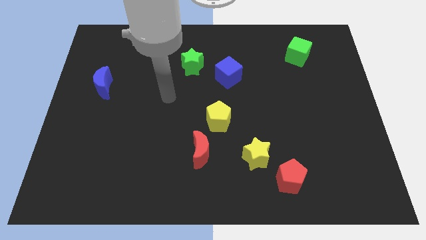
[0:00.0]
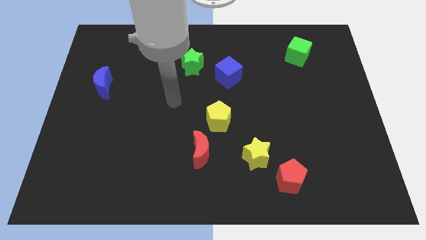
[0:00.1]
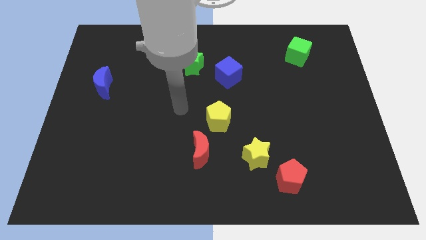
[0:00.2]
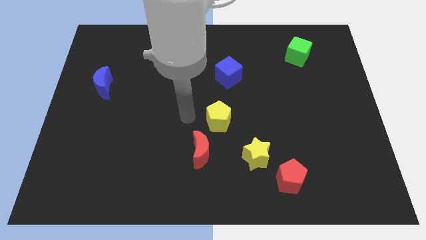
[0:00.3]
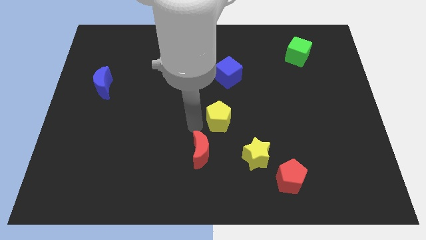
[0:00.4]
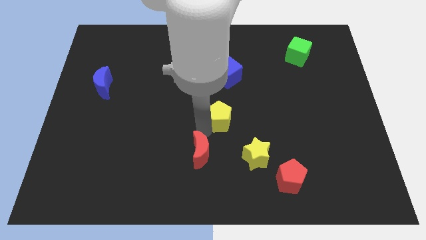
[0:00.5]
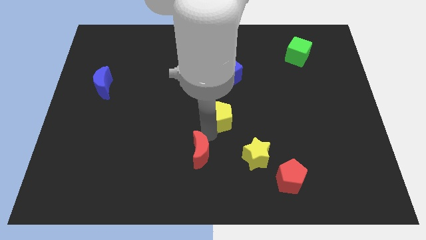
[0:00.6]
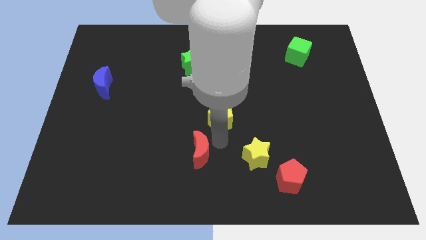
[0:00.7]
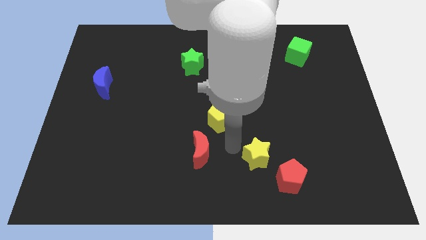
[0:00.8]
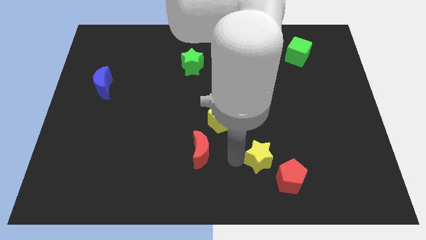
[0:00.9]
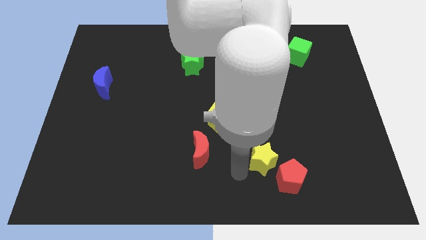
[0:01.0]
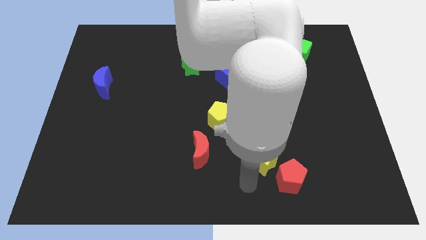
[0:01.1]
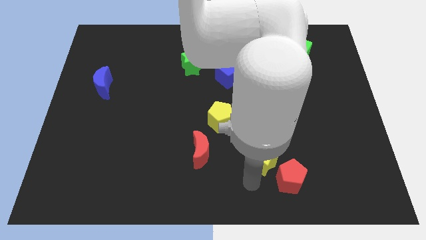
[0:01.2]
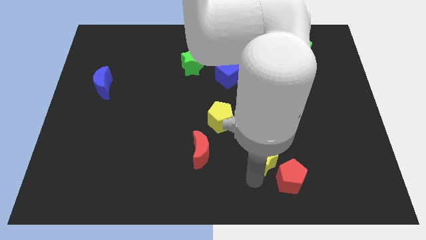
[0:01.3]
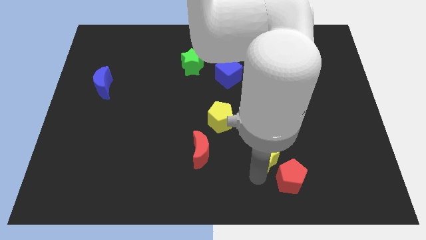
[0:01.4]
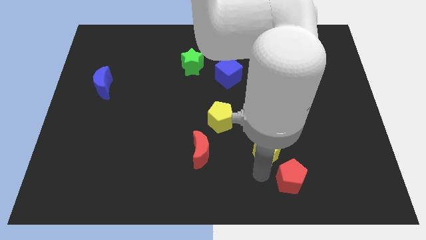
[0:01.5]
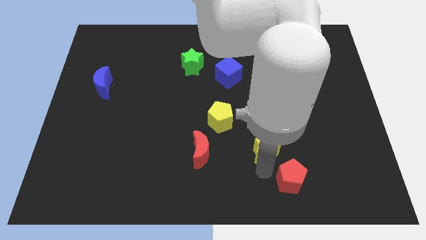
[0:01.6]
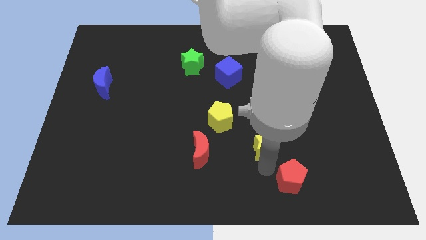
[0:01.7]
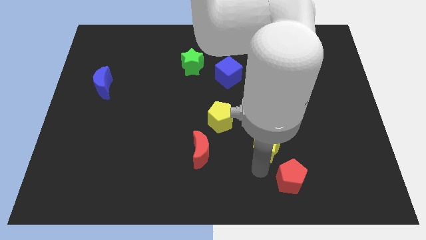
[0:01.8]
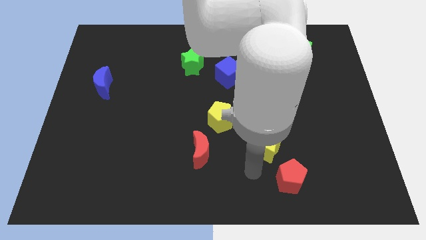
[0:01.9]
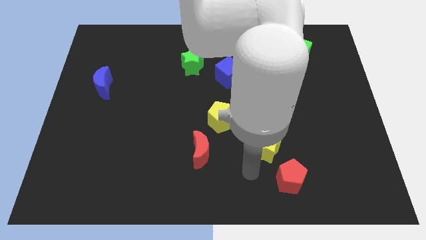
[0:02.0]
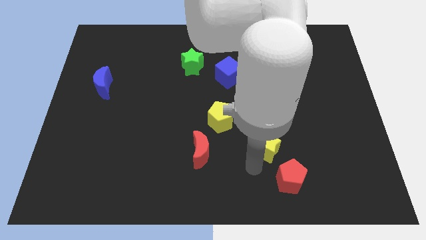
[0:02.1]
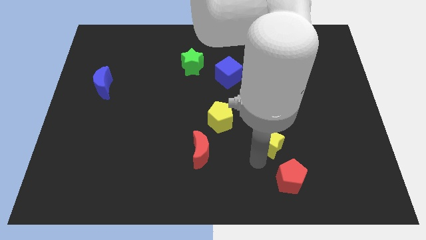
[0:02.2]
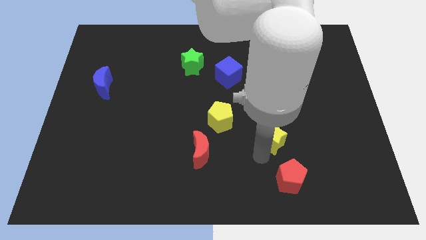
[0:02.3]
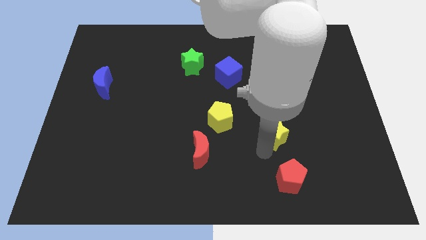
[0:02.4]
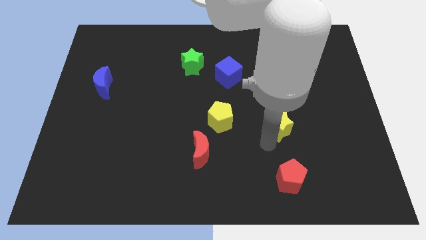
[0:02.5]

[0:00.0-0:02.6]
slightly slide the yellow star upwards and to the right diagonally

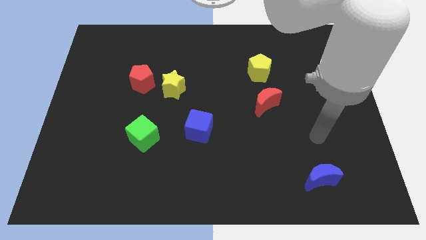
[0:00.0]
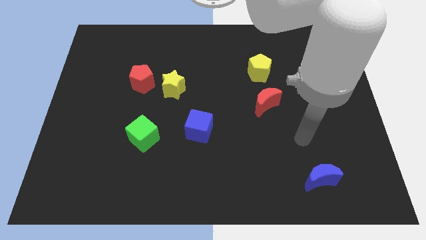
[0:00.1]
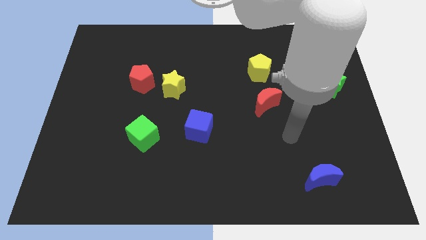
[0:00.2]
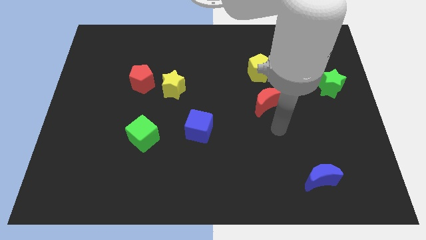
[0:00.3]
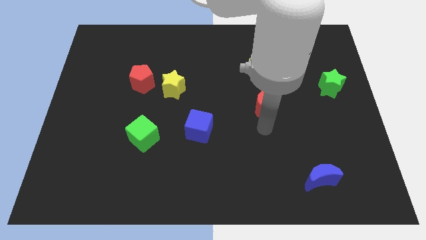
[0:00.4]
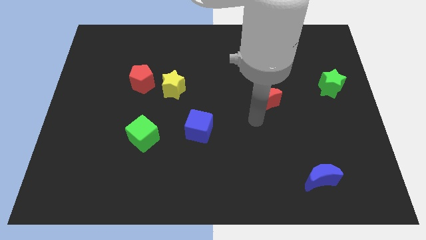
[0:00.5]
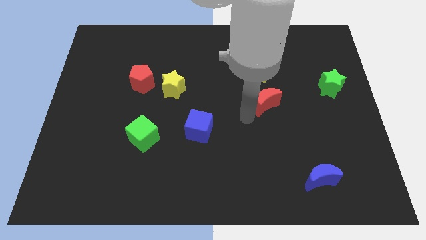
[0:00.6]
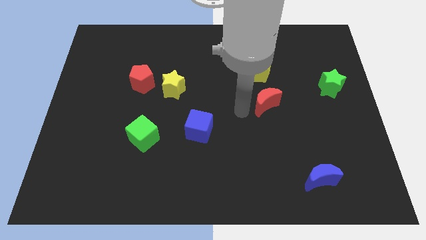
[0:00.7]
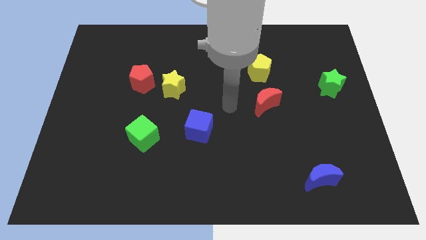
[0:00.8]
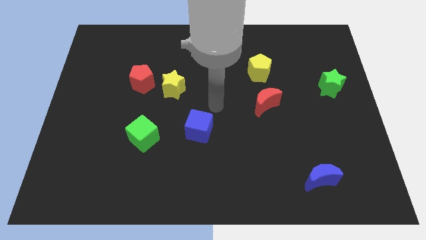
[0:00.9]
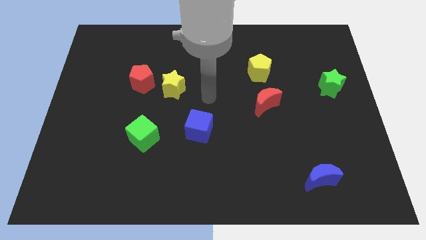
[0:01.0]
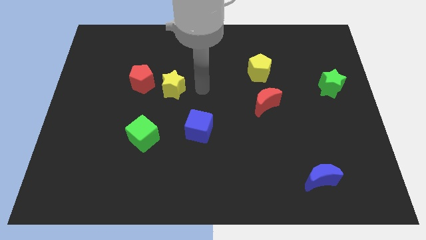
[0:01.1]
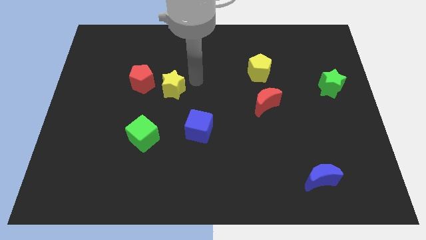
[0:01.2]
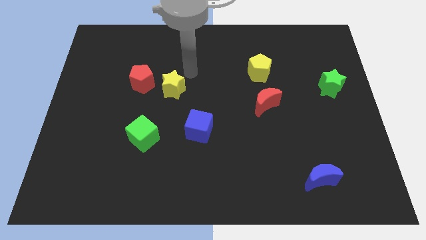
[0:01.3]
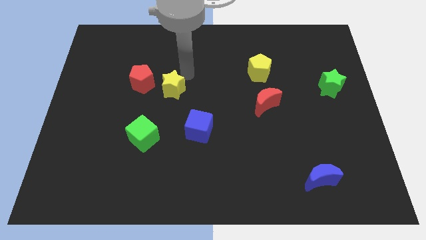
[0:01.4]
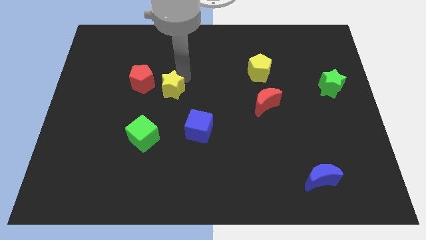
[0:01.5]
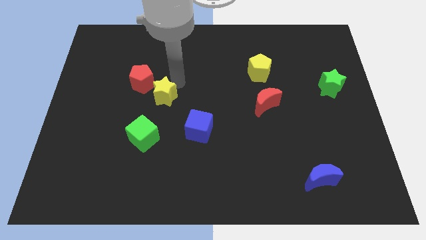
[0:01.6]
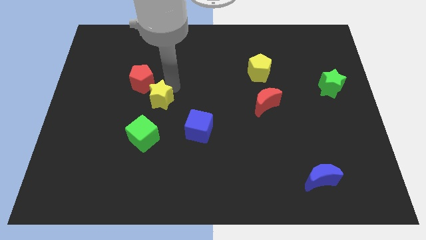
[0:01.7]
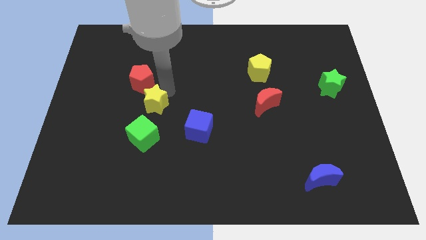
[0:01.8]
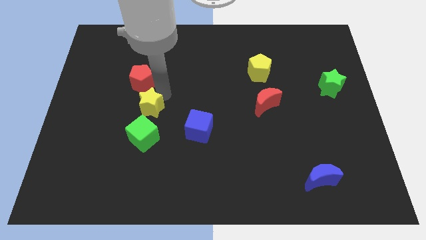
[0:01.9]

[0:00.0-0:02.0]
slightly move the yellow star downwards and to the left

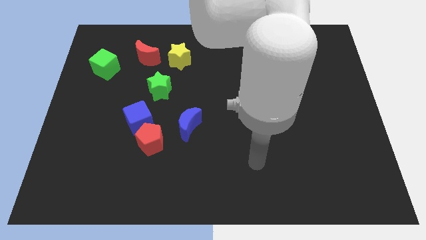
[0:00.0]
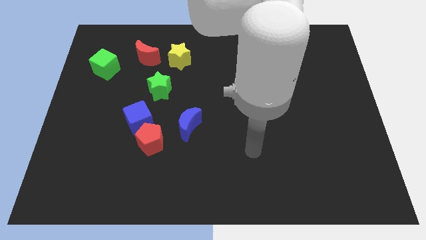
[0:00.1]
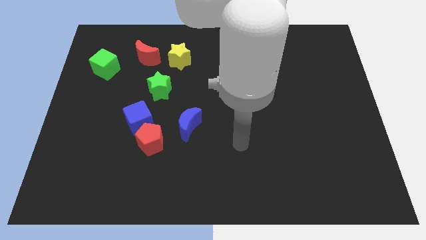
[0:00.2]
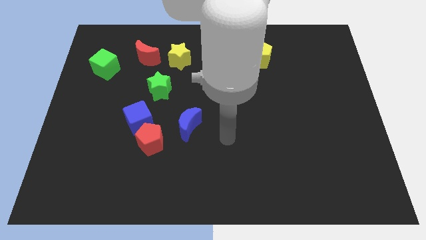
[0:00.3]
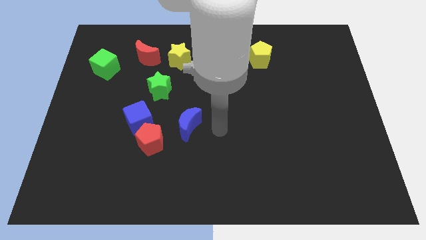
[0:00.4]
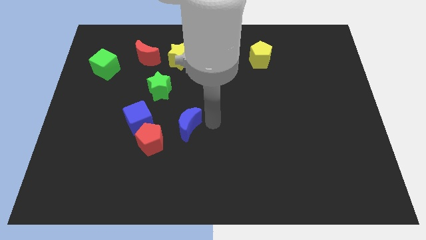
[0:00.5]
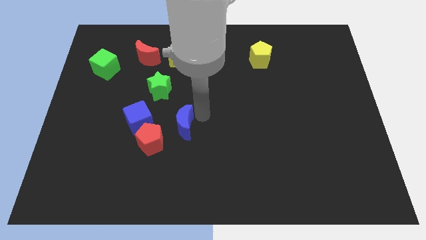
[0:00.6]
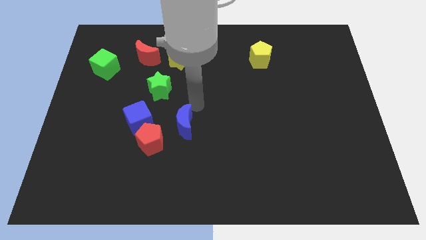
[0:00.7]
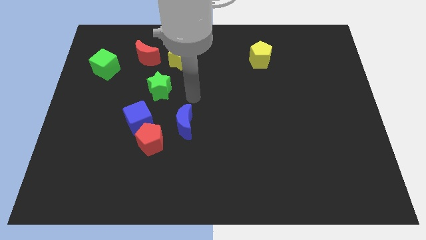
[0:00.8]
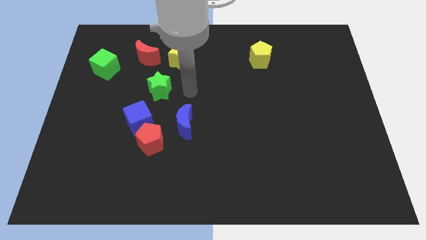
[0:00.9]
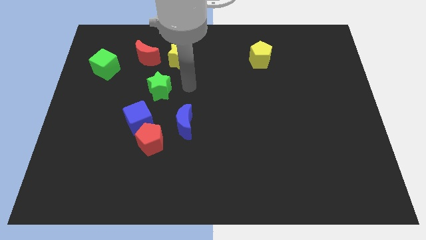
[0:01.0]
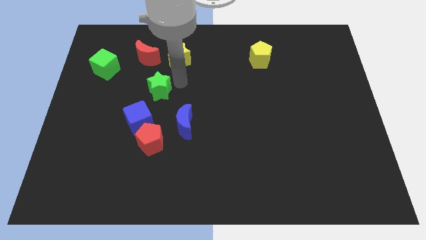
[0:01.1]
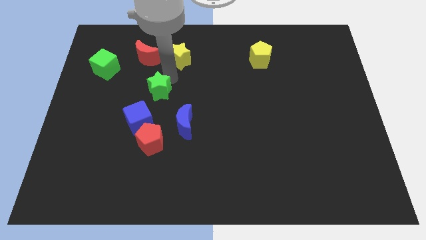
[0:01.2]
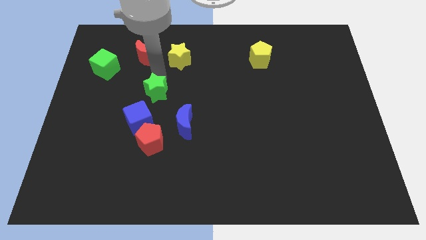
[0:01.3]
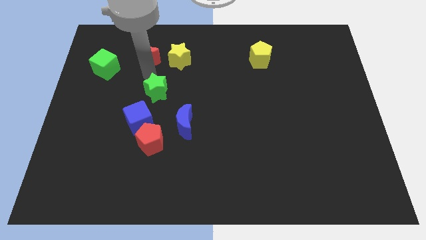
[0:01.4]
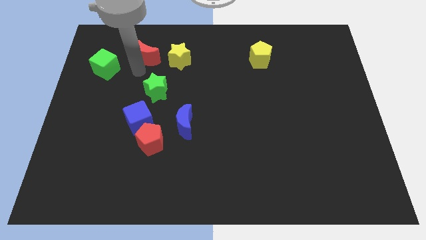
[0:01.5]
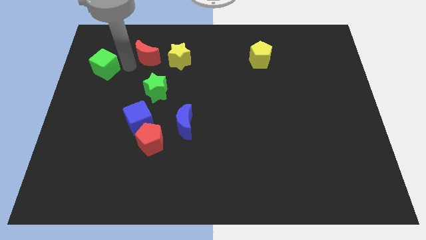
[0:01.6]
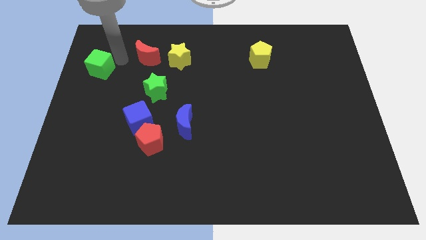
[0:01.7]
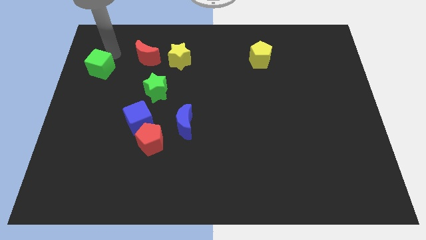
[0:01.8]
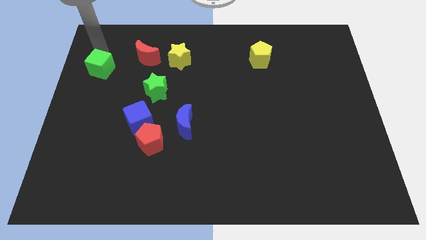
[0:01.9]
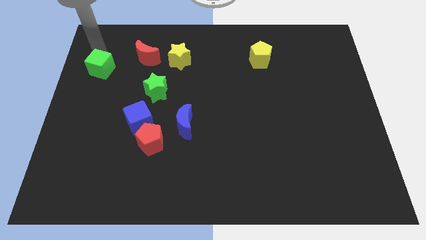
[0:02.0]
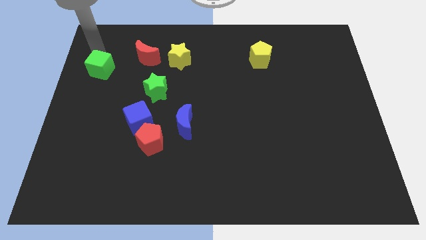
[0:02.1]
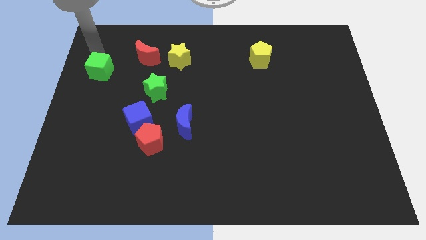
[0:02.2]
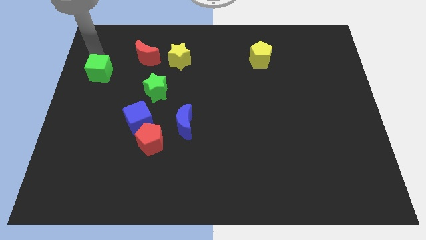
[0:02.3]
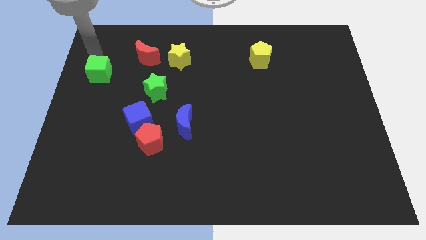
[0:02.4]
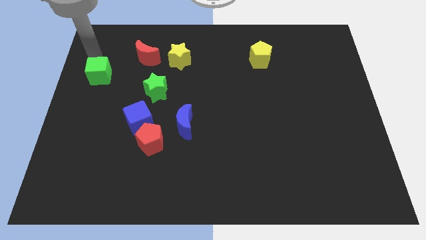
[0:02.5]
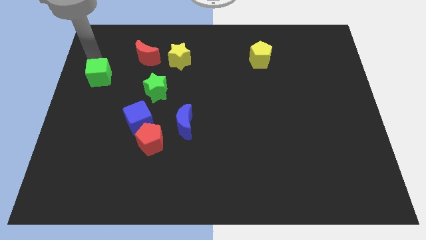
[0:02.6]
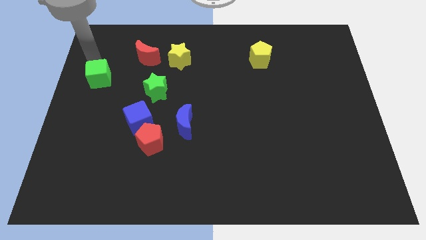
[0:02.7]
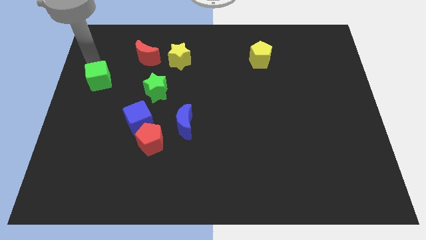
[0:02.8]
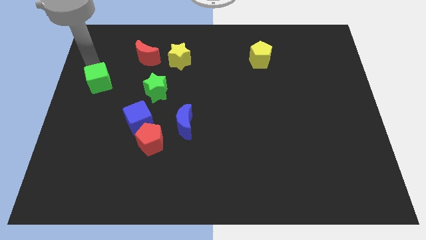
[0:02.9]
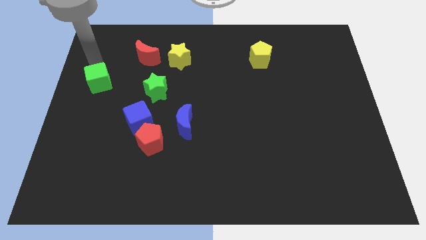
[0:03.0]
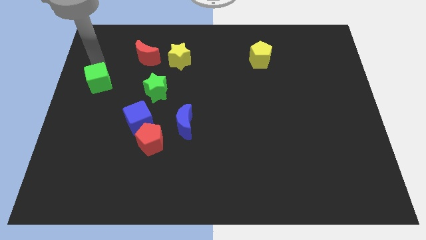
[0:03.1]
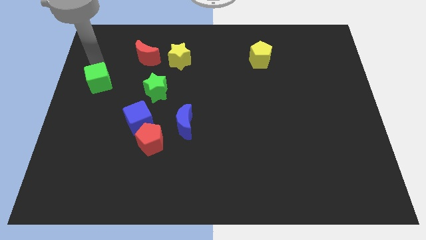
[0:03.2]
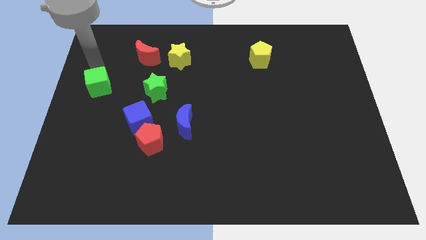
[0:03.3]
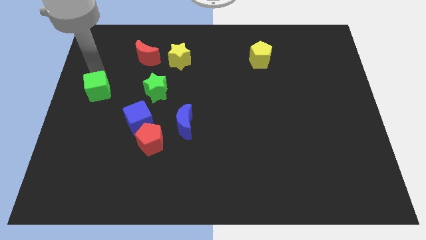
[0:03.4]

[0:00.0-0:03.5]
slightly slide the green cube down

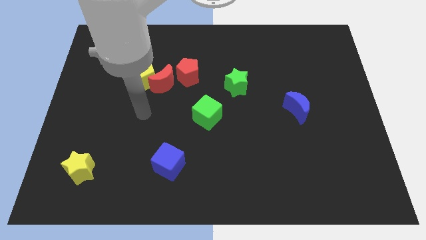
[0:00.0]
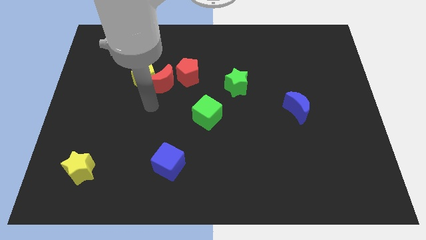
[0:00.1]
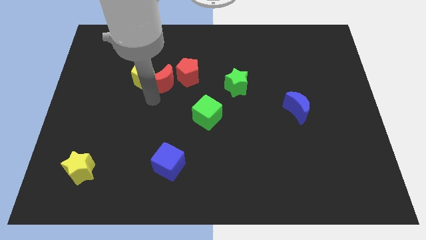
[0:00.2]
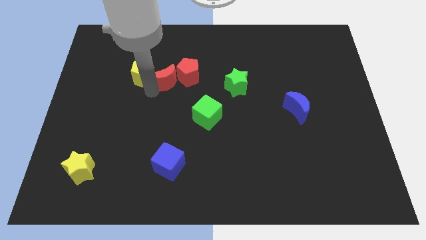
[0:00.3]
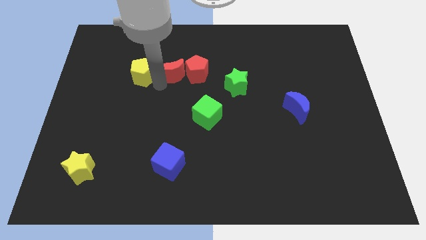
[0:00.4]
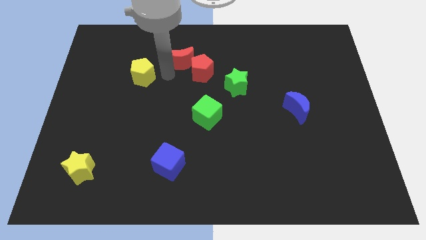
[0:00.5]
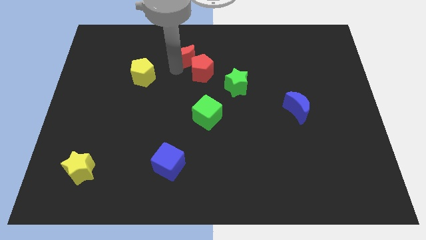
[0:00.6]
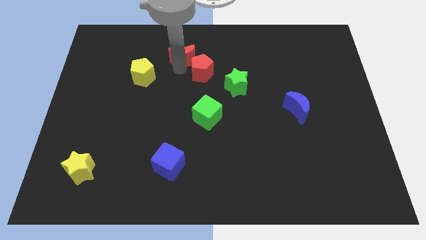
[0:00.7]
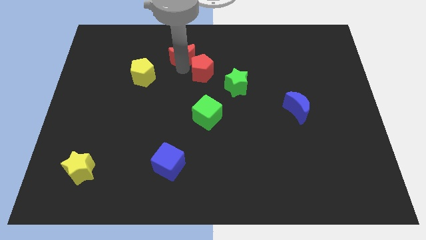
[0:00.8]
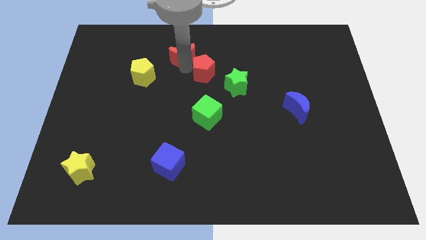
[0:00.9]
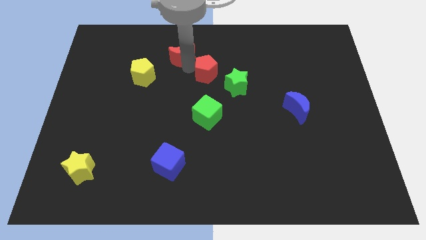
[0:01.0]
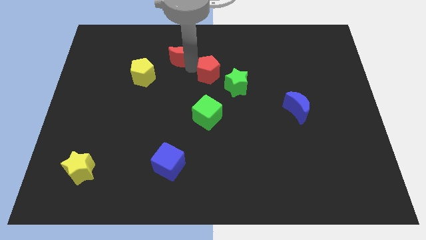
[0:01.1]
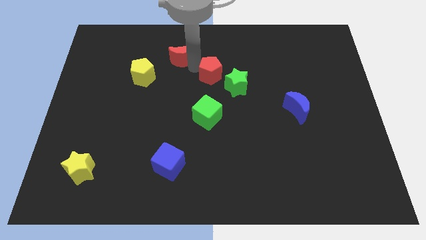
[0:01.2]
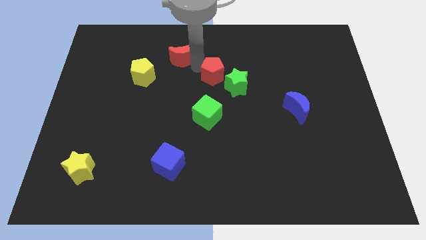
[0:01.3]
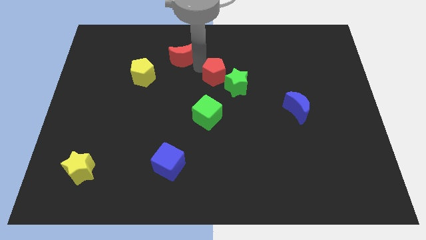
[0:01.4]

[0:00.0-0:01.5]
slightly push the red pentagon to the right
